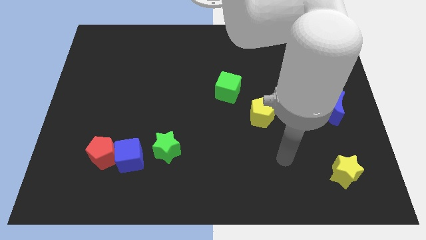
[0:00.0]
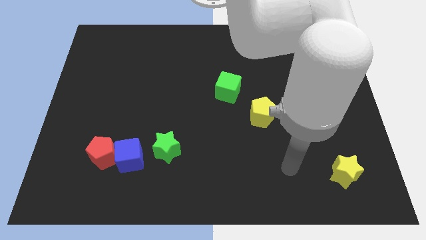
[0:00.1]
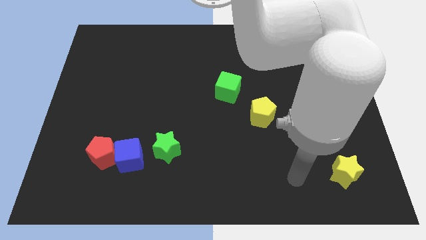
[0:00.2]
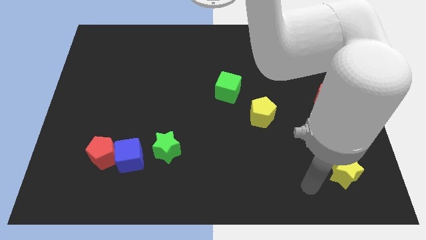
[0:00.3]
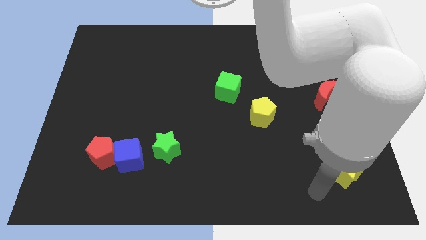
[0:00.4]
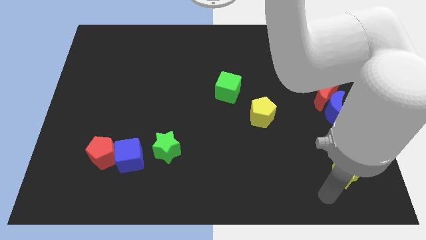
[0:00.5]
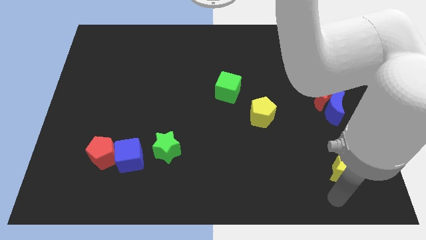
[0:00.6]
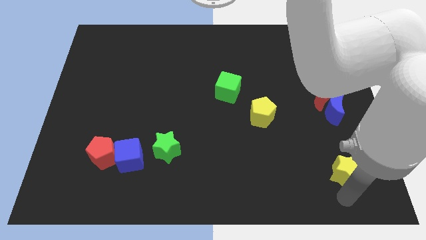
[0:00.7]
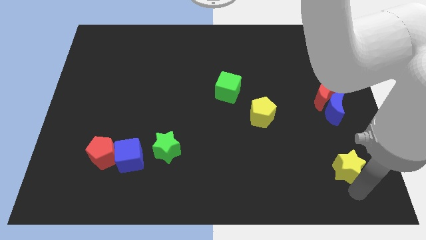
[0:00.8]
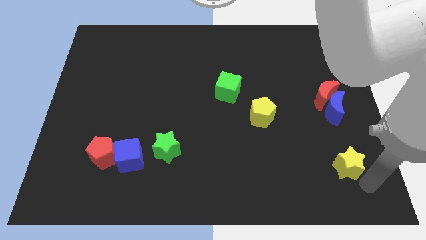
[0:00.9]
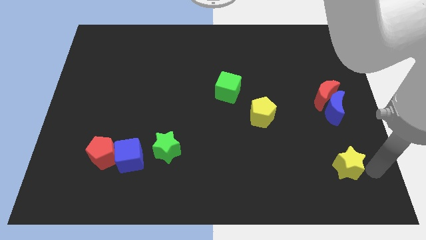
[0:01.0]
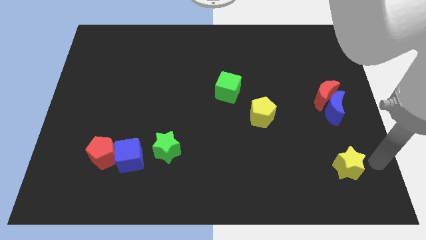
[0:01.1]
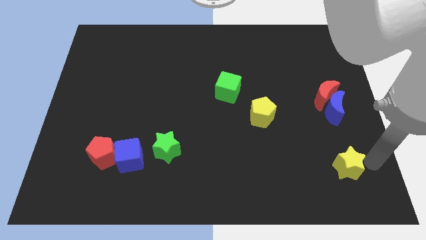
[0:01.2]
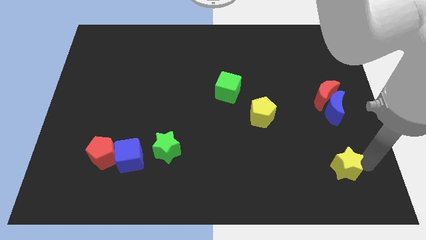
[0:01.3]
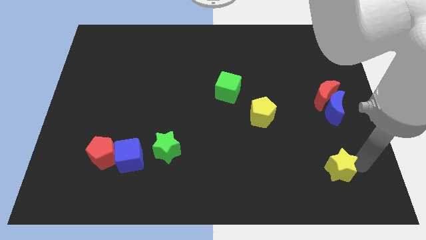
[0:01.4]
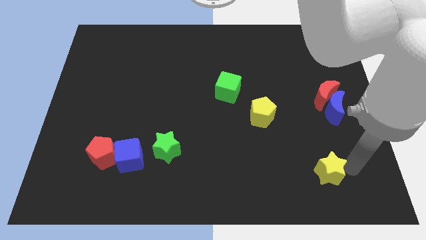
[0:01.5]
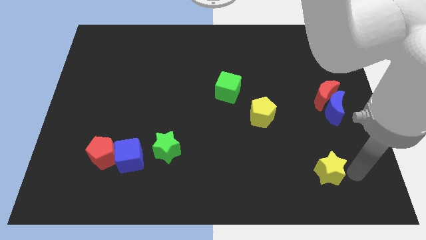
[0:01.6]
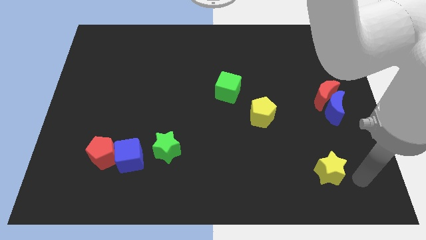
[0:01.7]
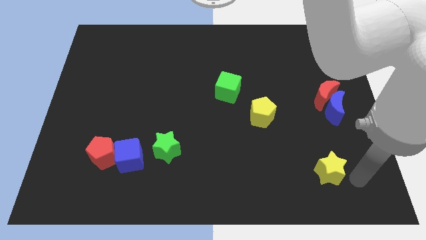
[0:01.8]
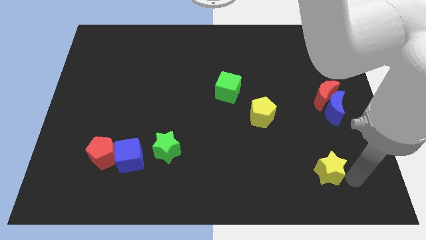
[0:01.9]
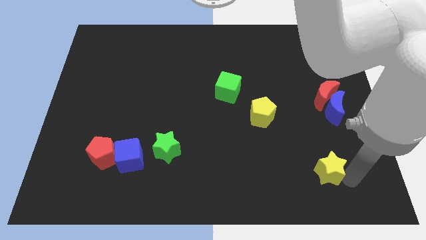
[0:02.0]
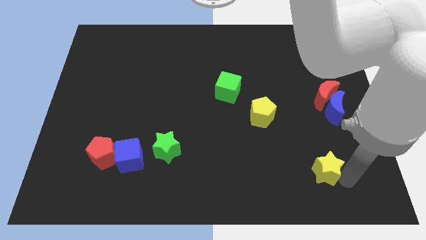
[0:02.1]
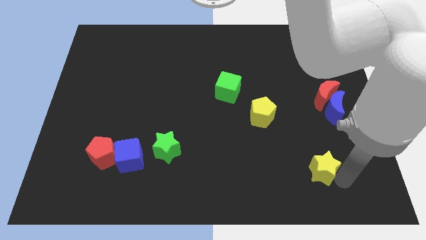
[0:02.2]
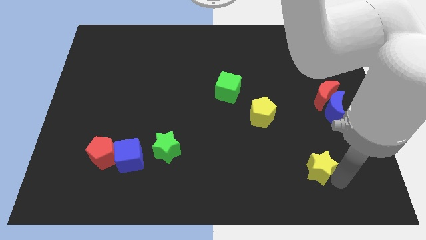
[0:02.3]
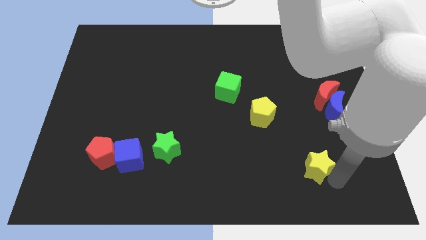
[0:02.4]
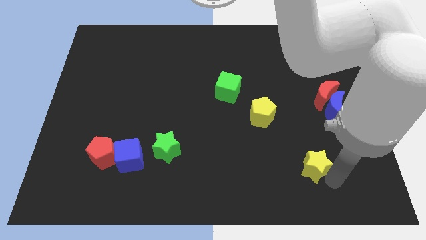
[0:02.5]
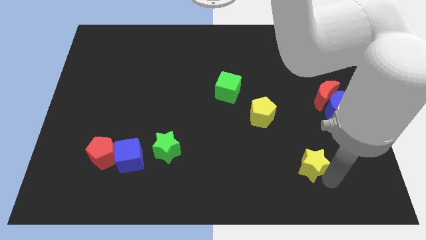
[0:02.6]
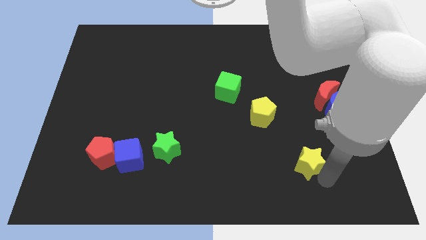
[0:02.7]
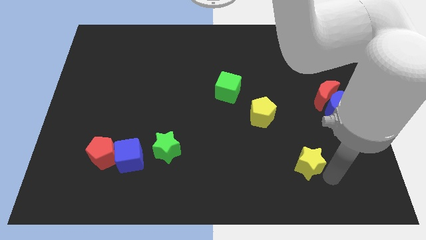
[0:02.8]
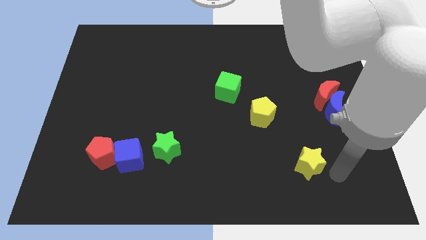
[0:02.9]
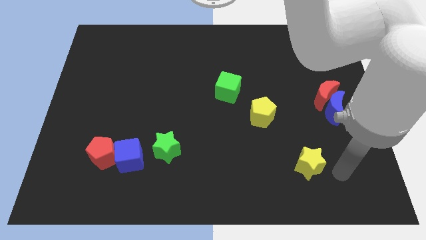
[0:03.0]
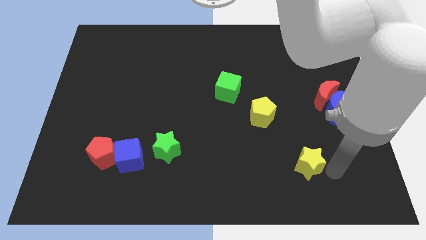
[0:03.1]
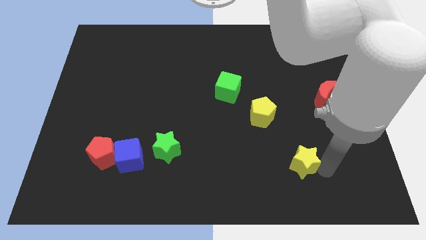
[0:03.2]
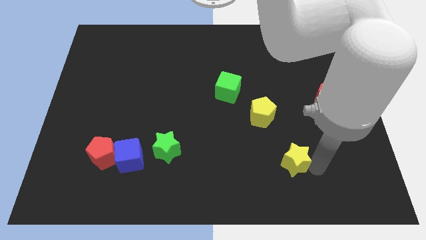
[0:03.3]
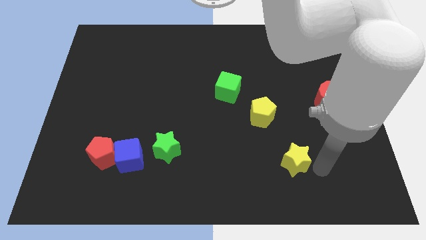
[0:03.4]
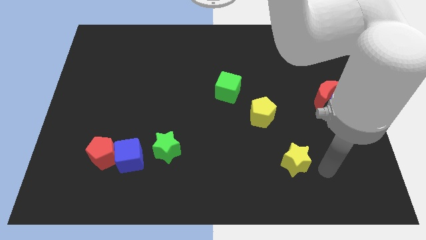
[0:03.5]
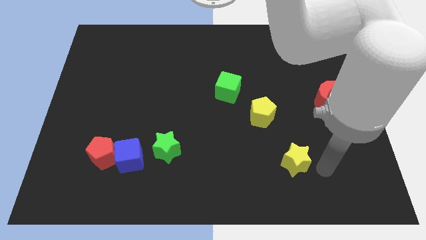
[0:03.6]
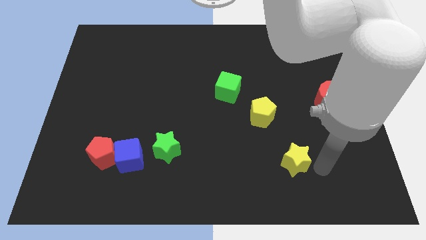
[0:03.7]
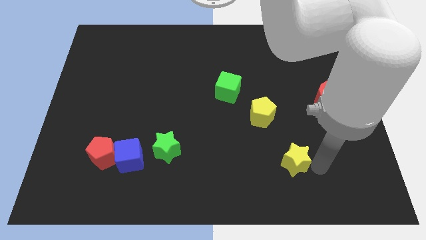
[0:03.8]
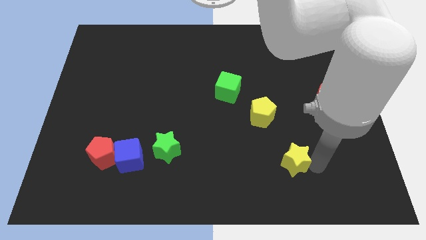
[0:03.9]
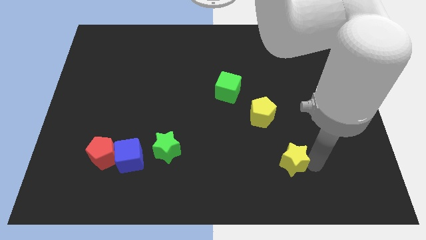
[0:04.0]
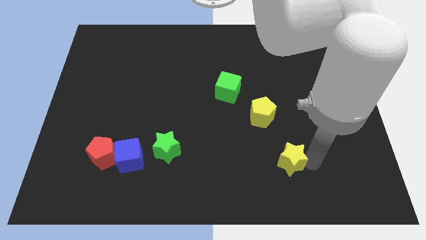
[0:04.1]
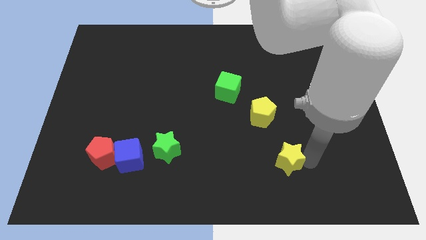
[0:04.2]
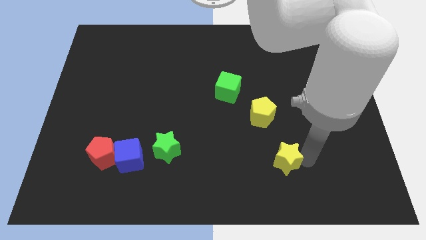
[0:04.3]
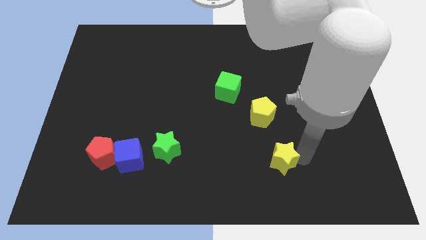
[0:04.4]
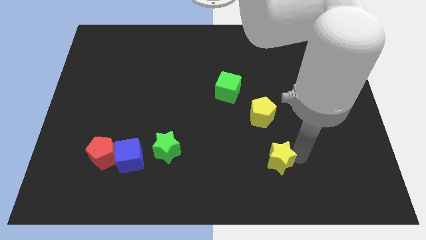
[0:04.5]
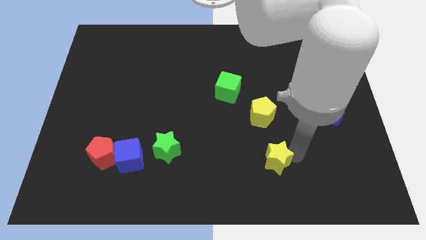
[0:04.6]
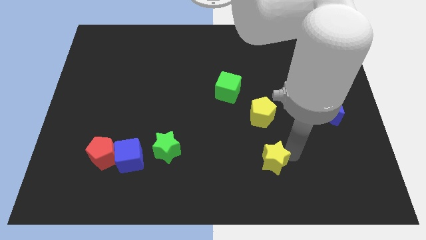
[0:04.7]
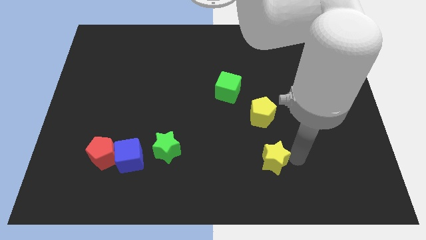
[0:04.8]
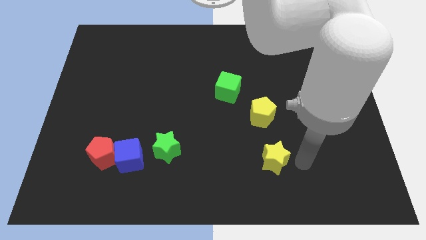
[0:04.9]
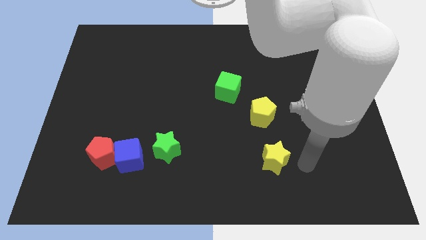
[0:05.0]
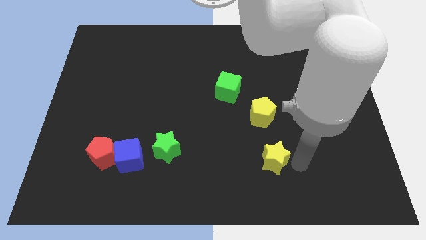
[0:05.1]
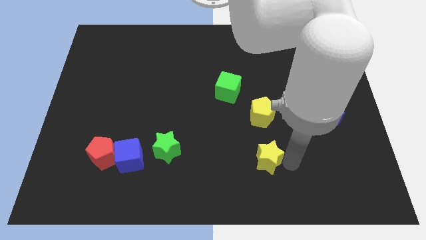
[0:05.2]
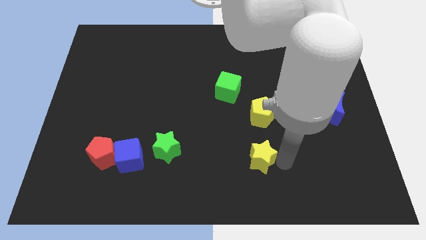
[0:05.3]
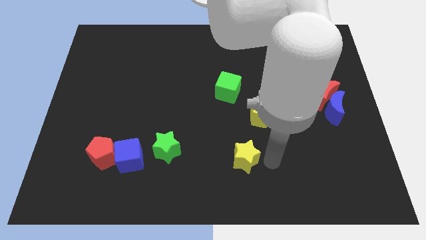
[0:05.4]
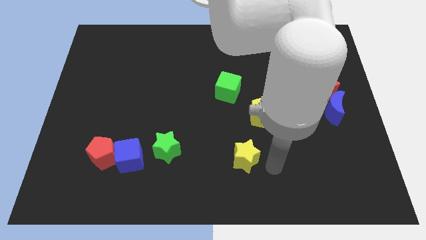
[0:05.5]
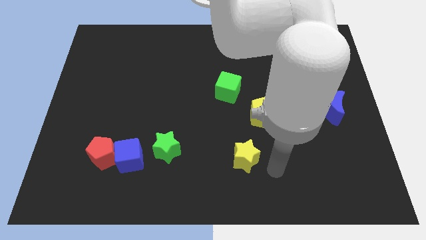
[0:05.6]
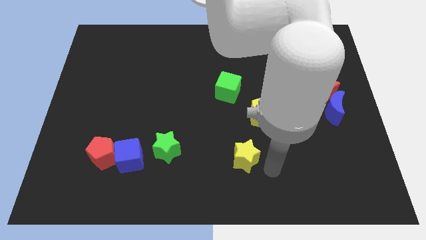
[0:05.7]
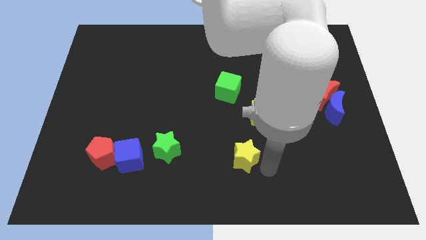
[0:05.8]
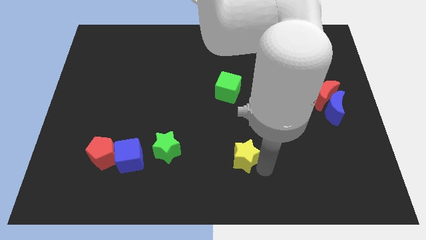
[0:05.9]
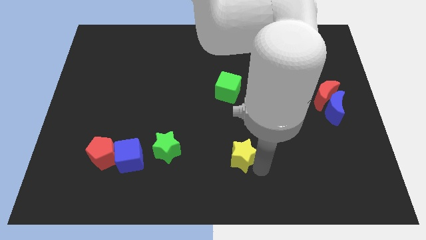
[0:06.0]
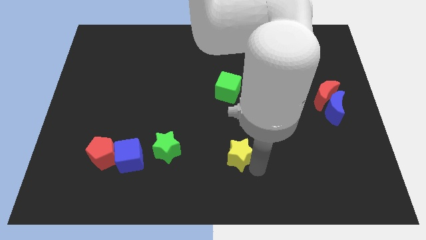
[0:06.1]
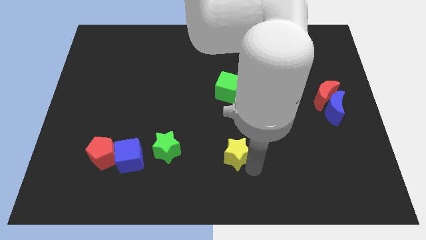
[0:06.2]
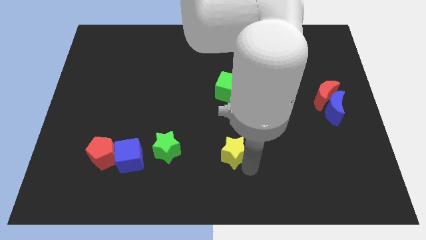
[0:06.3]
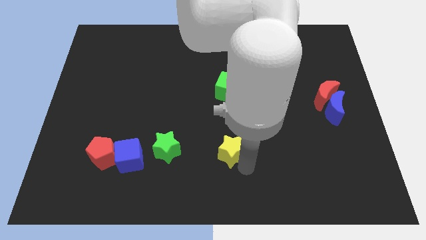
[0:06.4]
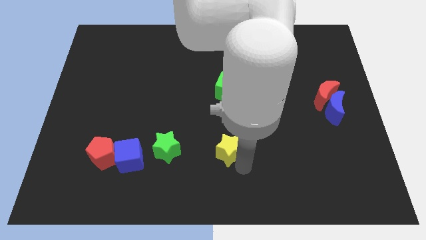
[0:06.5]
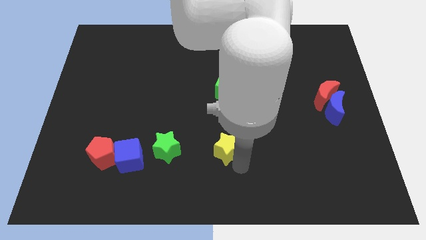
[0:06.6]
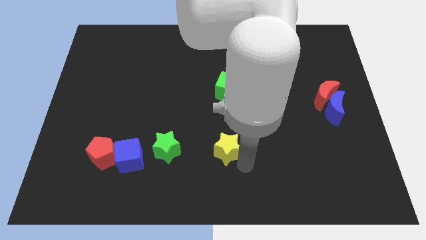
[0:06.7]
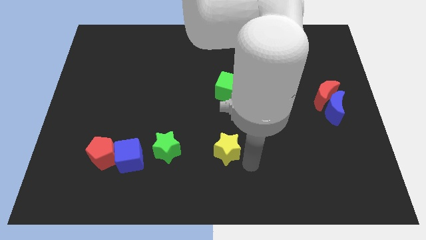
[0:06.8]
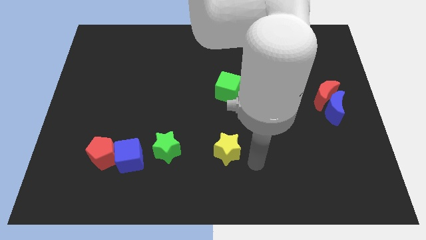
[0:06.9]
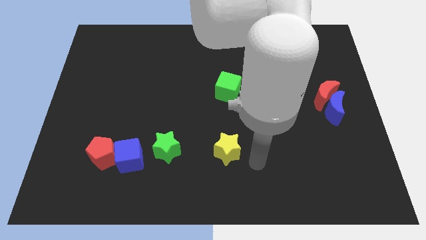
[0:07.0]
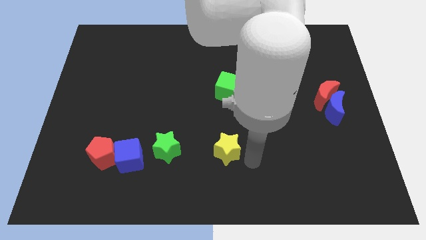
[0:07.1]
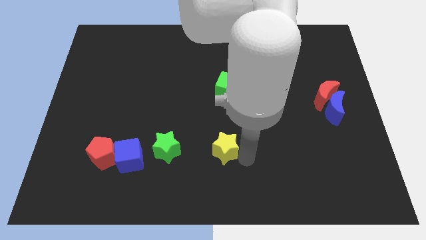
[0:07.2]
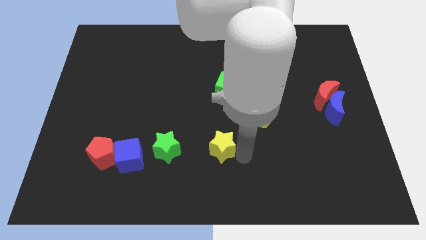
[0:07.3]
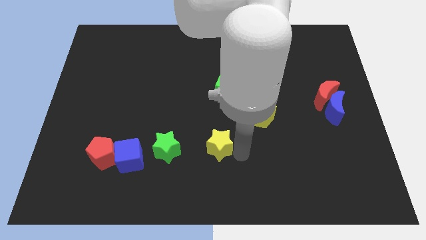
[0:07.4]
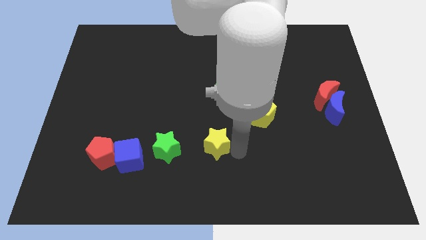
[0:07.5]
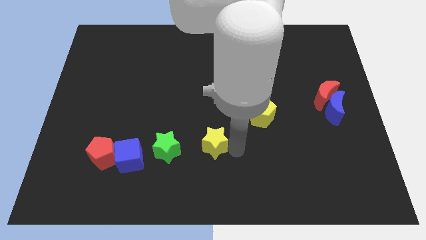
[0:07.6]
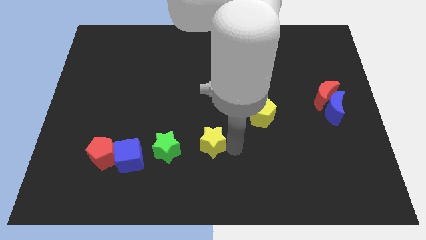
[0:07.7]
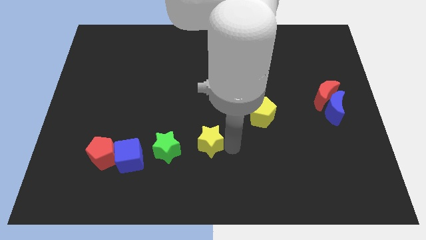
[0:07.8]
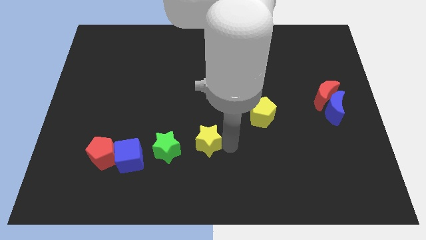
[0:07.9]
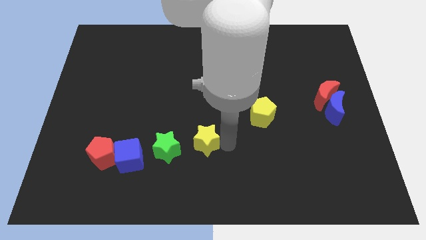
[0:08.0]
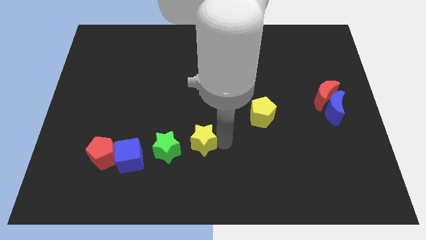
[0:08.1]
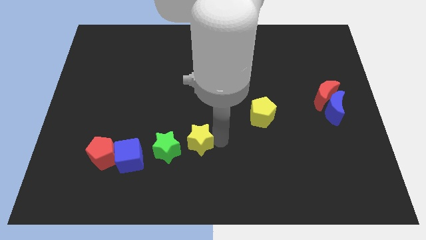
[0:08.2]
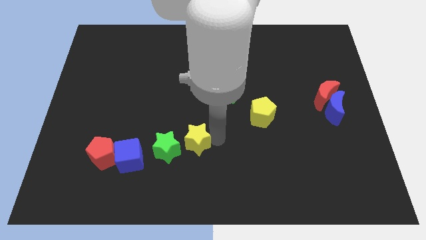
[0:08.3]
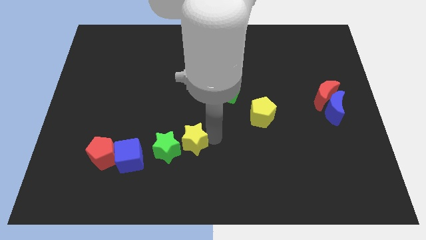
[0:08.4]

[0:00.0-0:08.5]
push the yellow star close to the green star
